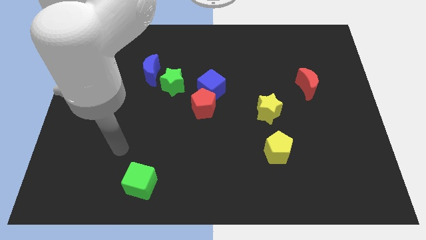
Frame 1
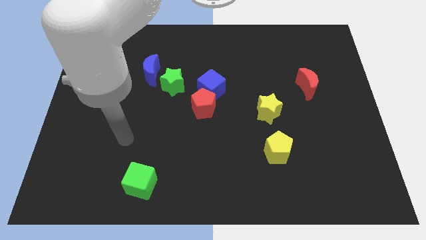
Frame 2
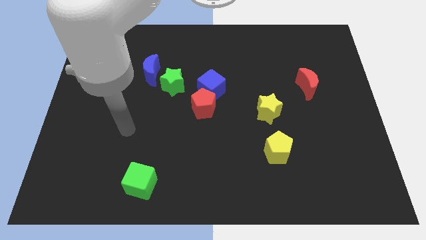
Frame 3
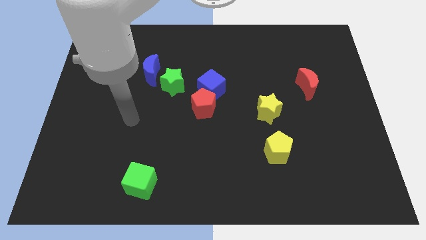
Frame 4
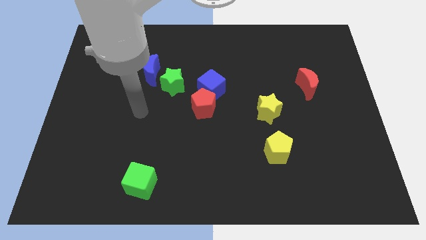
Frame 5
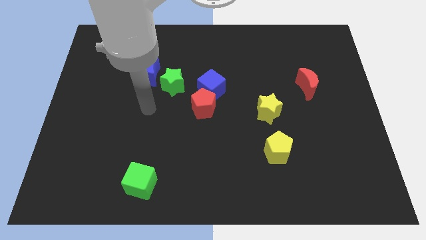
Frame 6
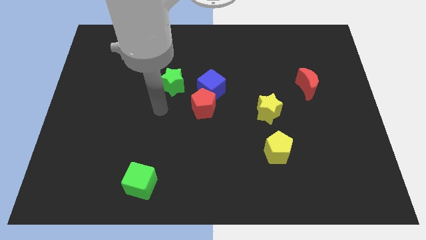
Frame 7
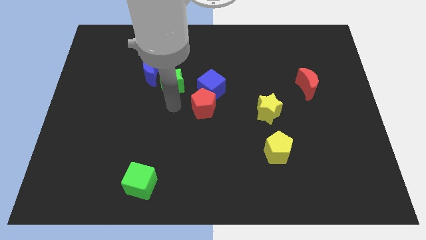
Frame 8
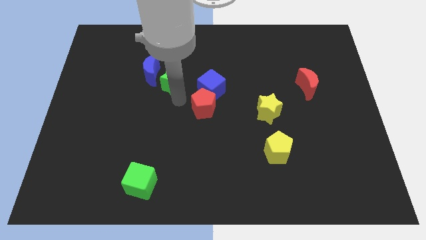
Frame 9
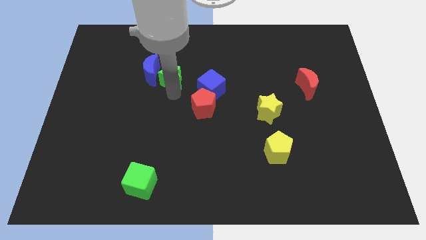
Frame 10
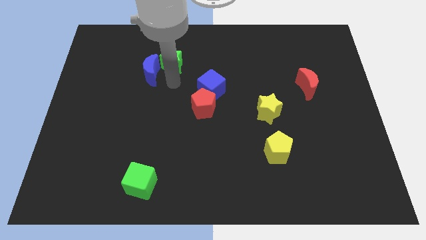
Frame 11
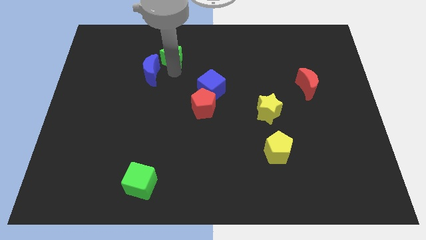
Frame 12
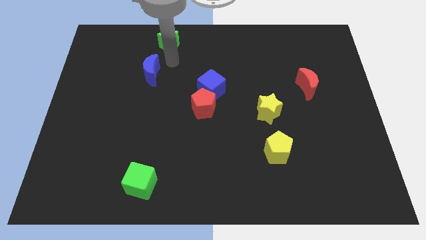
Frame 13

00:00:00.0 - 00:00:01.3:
move the blue moon away from the green star

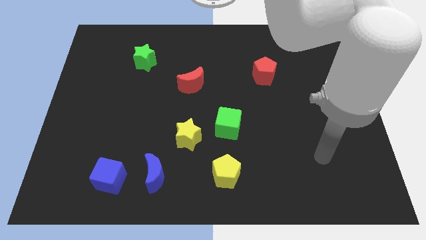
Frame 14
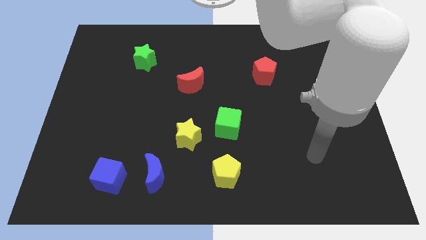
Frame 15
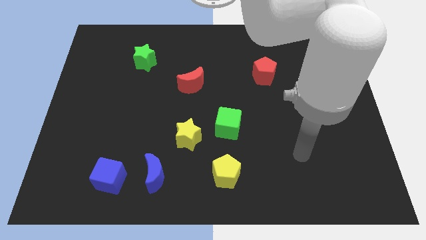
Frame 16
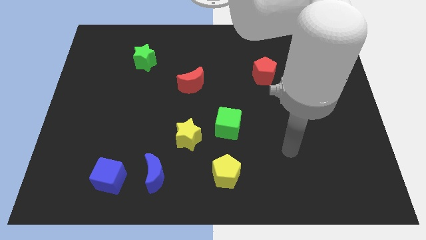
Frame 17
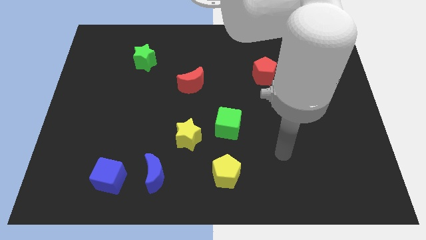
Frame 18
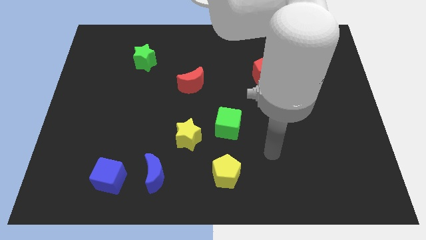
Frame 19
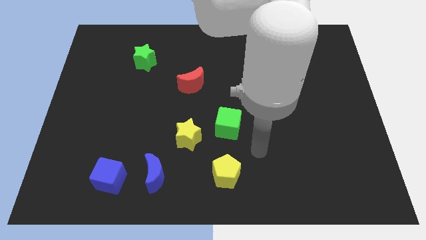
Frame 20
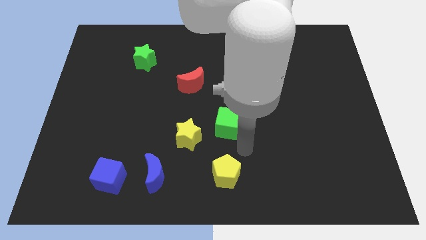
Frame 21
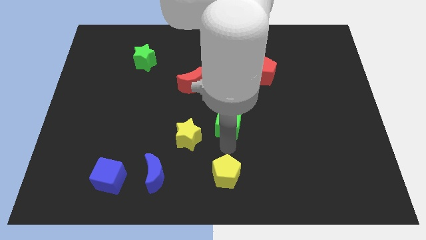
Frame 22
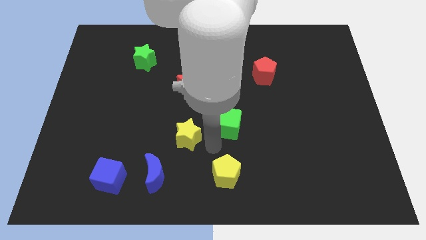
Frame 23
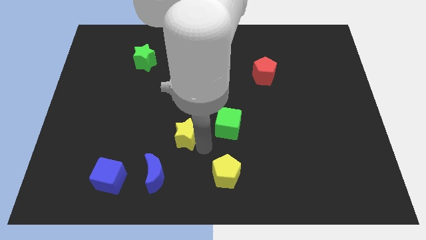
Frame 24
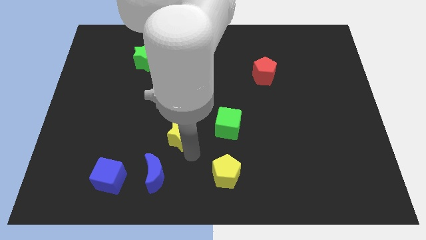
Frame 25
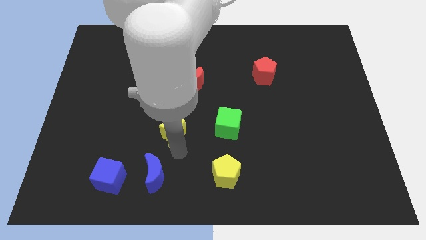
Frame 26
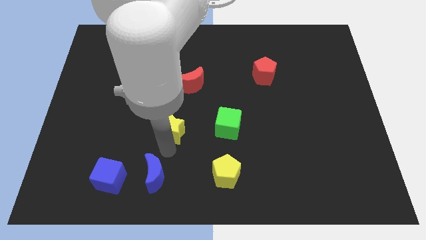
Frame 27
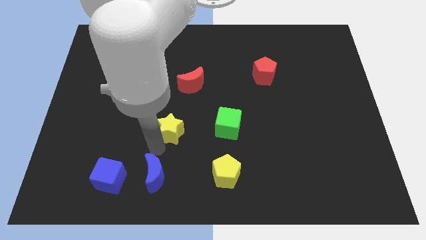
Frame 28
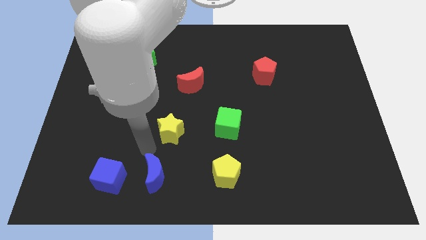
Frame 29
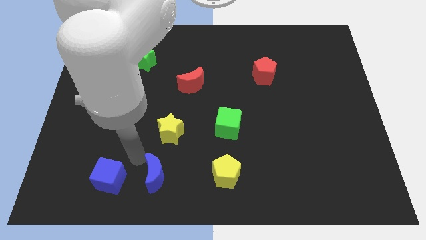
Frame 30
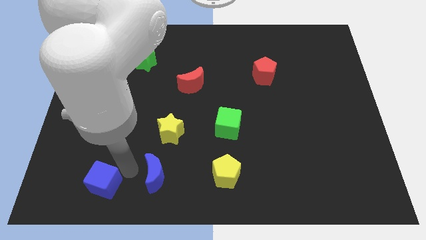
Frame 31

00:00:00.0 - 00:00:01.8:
separate the blue moon from the blue cube

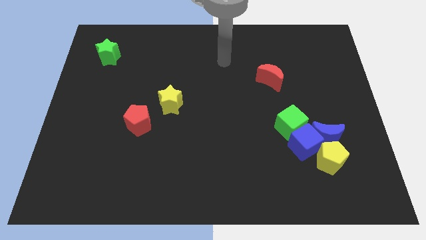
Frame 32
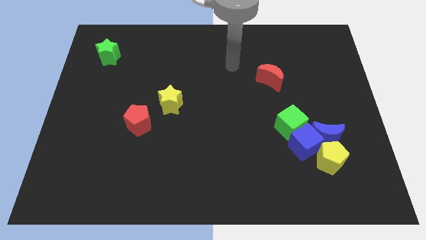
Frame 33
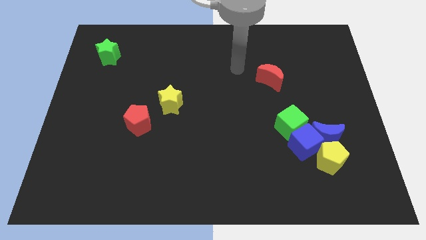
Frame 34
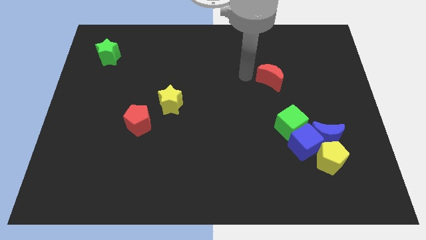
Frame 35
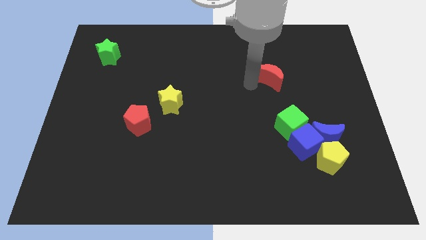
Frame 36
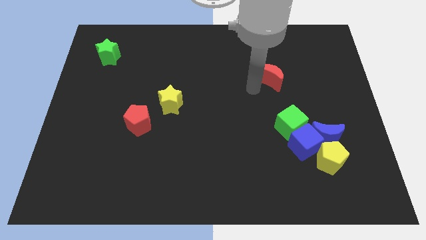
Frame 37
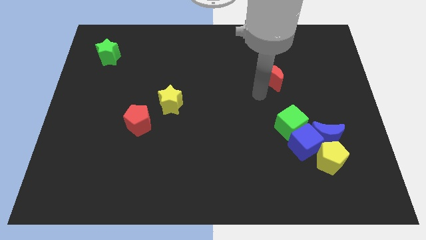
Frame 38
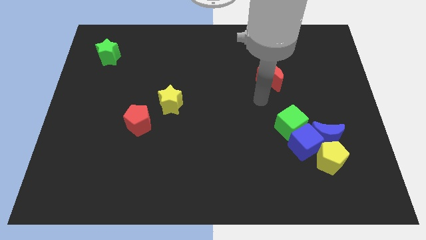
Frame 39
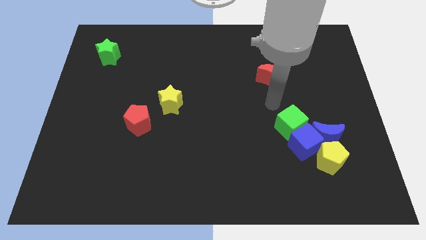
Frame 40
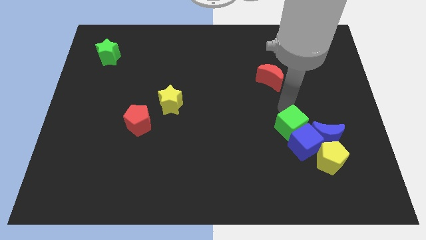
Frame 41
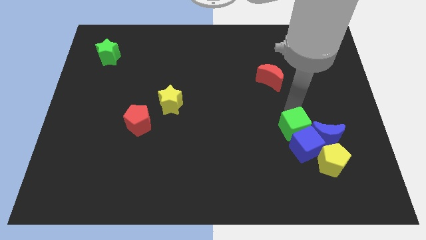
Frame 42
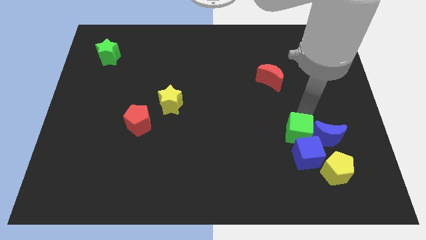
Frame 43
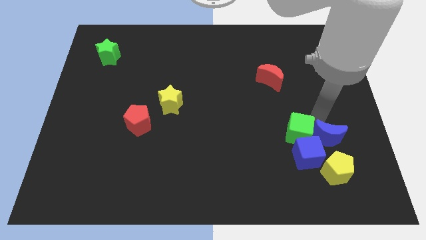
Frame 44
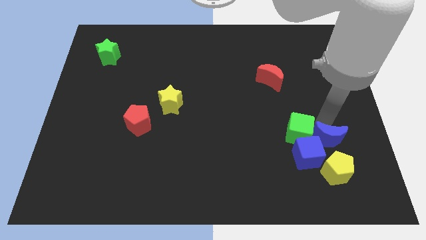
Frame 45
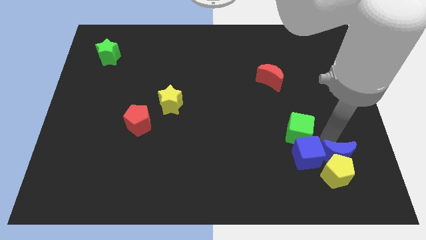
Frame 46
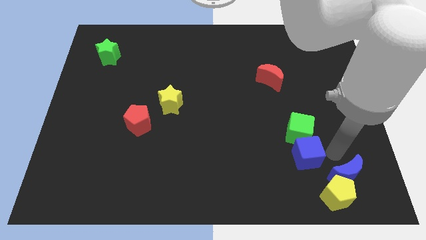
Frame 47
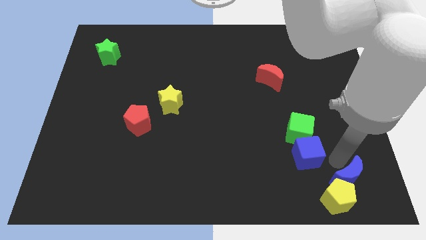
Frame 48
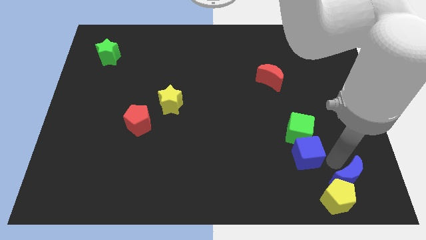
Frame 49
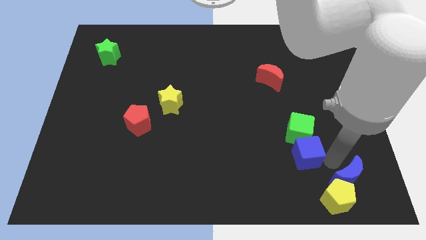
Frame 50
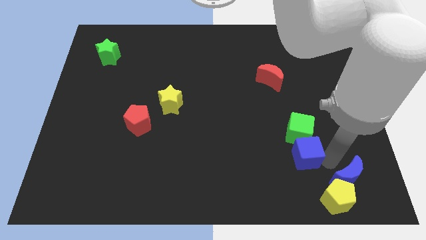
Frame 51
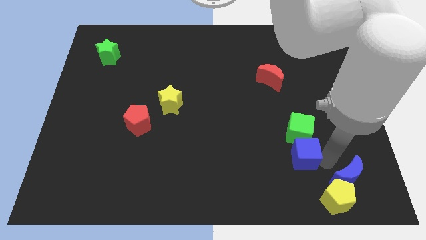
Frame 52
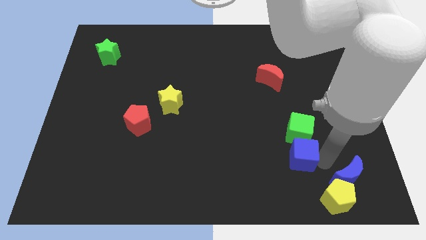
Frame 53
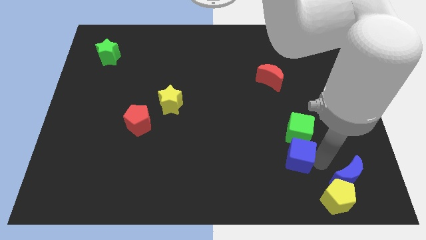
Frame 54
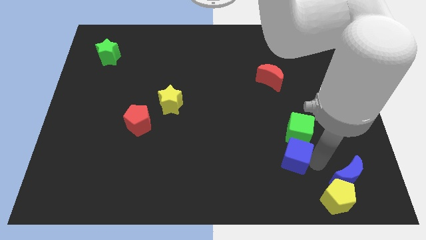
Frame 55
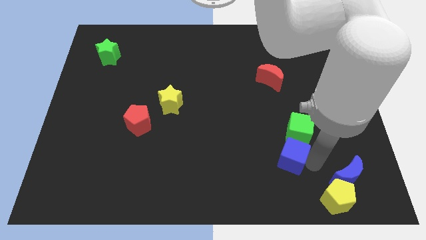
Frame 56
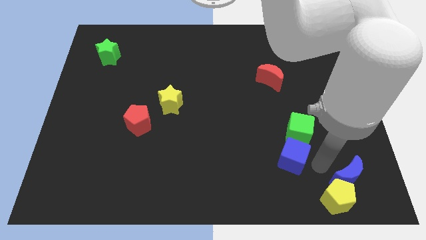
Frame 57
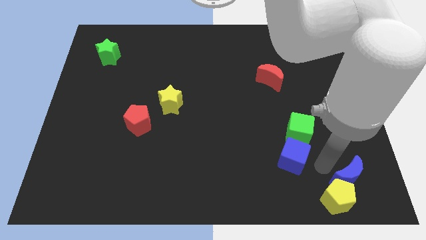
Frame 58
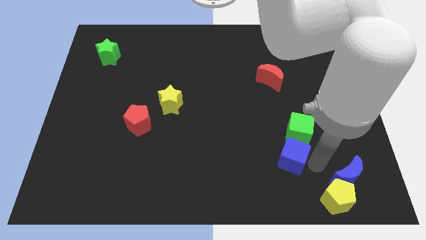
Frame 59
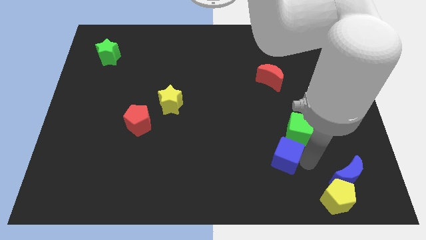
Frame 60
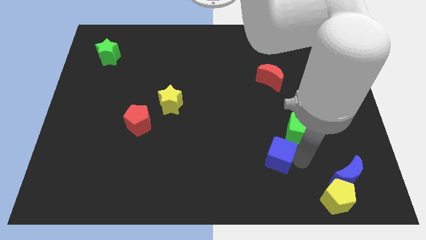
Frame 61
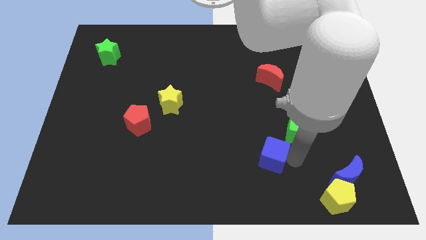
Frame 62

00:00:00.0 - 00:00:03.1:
separate the blue cube from the blue moon, green cube, and yellow pentagon

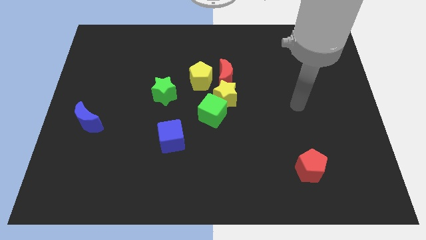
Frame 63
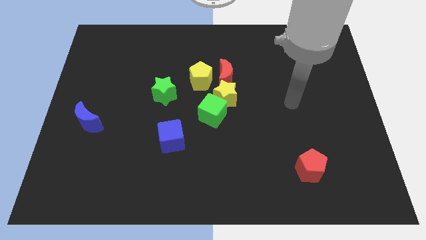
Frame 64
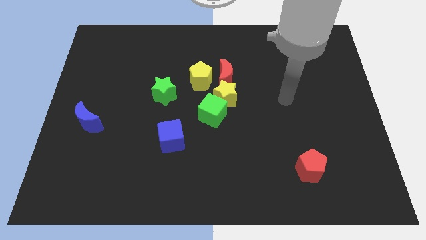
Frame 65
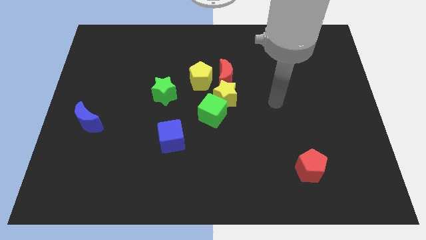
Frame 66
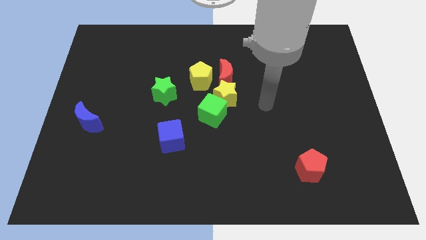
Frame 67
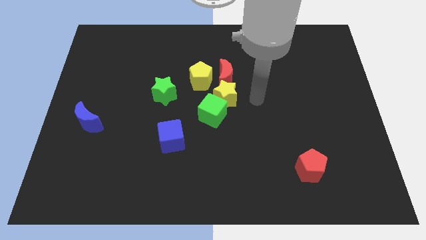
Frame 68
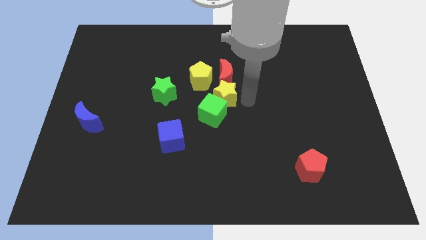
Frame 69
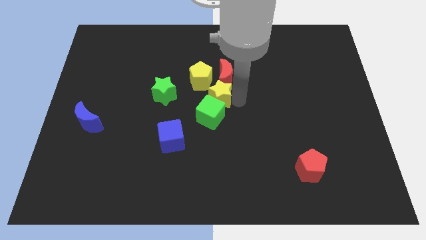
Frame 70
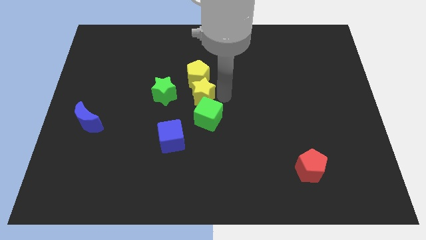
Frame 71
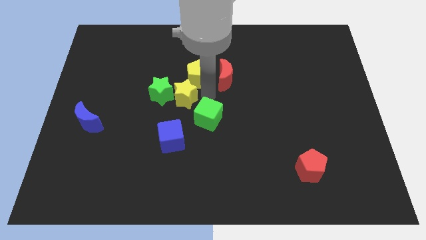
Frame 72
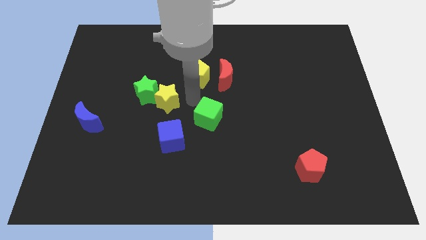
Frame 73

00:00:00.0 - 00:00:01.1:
pull the green cube apart from the yellow star

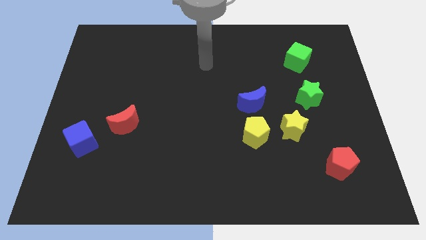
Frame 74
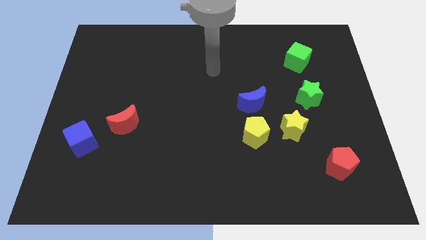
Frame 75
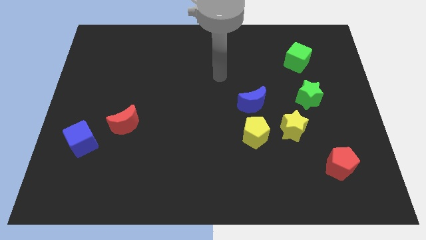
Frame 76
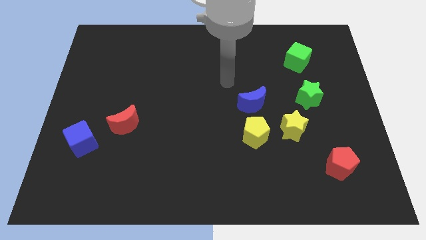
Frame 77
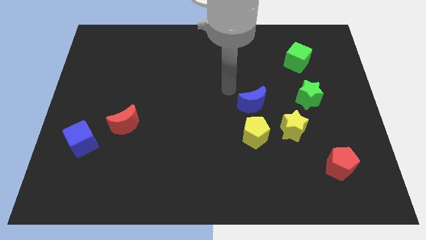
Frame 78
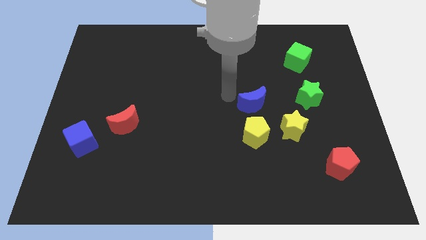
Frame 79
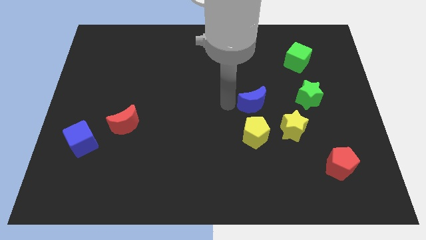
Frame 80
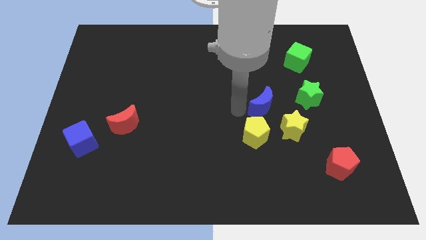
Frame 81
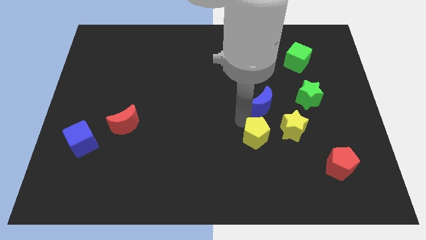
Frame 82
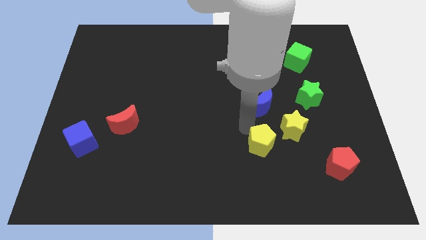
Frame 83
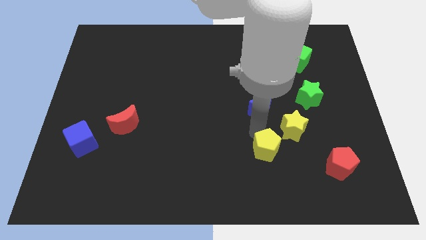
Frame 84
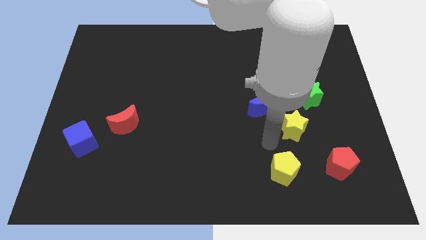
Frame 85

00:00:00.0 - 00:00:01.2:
separate the yellow star from the yellow pentagon

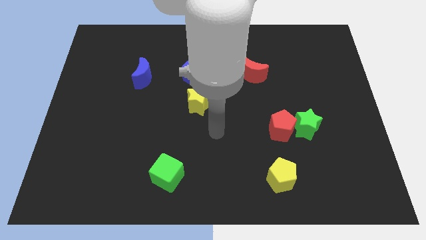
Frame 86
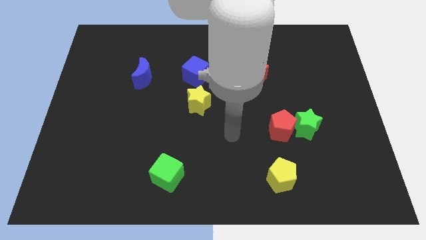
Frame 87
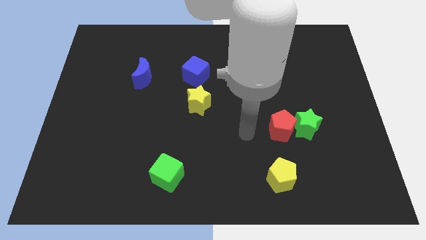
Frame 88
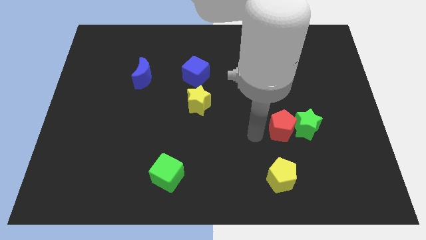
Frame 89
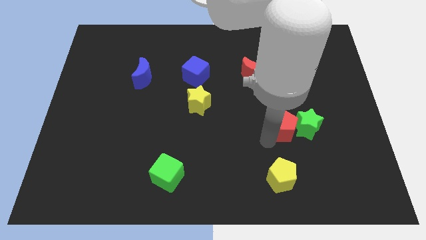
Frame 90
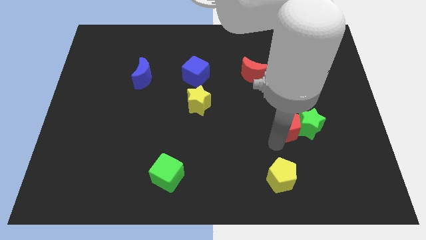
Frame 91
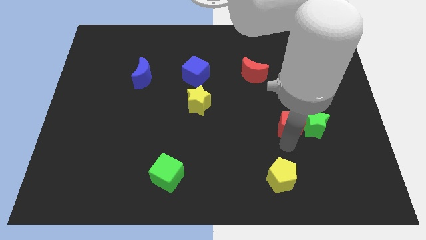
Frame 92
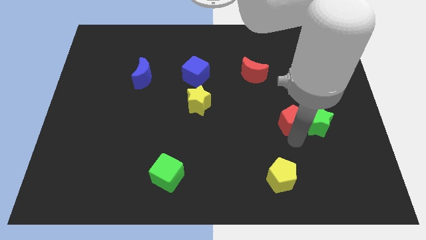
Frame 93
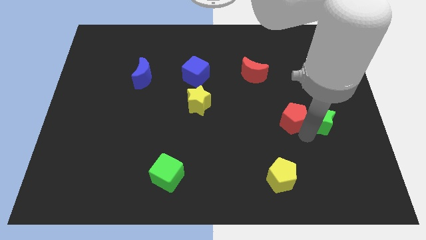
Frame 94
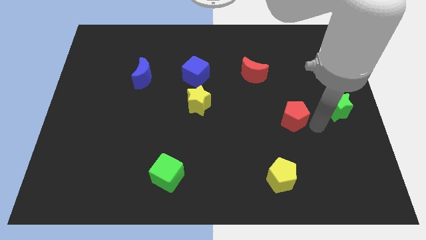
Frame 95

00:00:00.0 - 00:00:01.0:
pull the red pentagon apart from the green star
